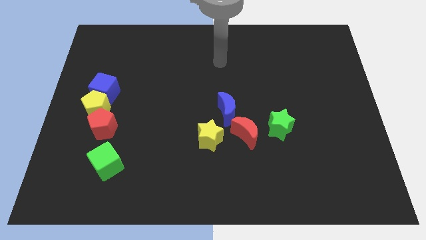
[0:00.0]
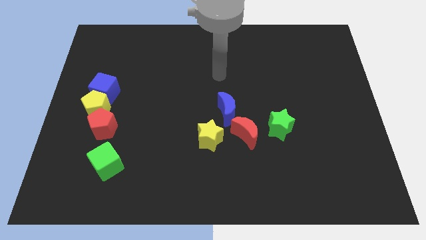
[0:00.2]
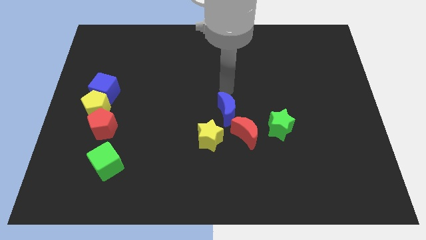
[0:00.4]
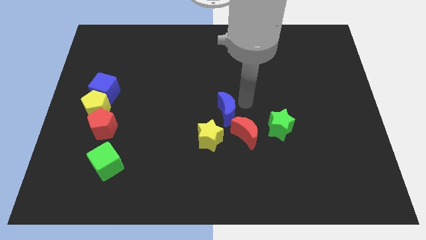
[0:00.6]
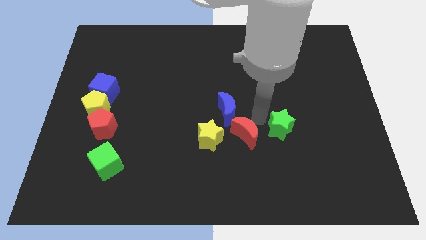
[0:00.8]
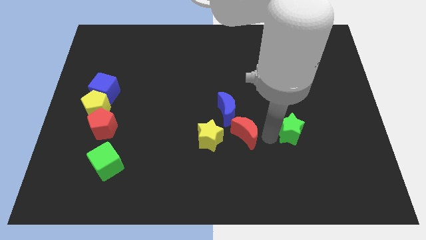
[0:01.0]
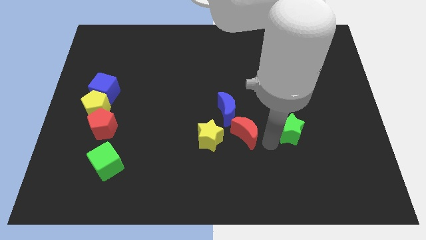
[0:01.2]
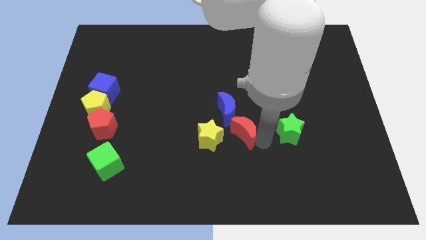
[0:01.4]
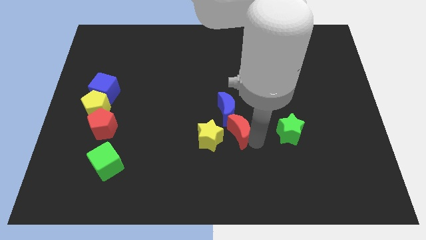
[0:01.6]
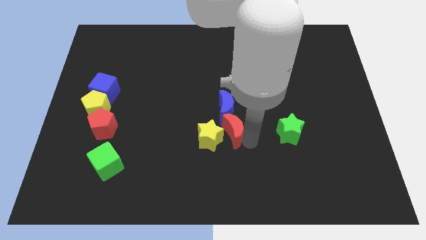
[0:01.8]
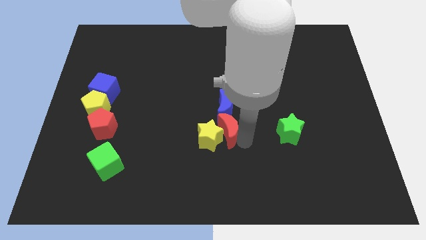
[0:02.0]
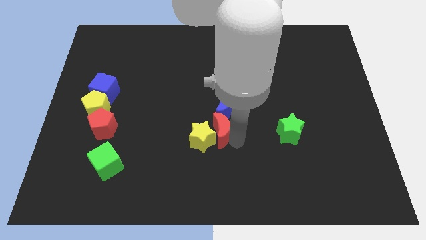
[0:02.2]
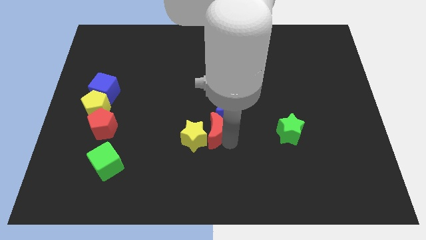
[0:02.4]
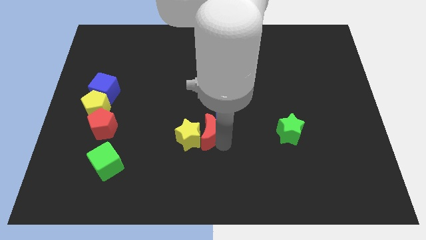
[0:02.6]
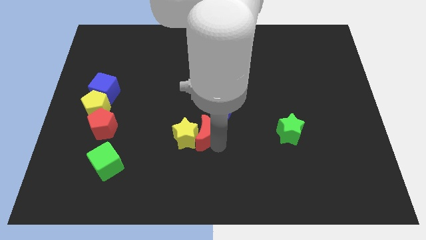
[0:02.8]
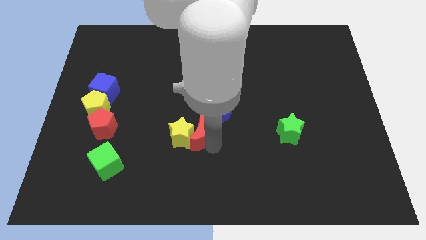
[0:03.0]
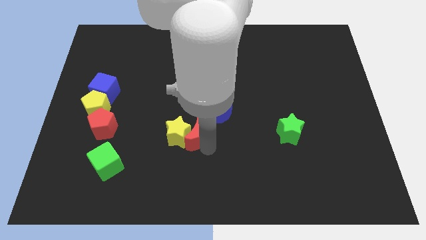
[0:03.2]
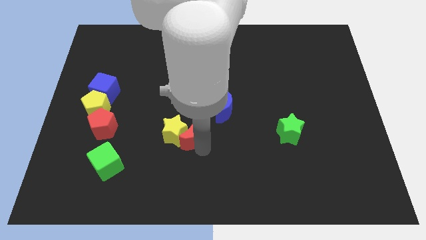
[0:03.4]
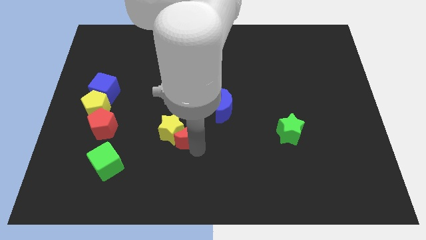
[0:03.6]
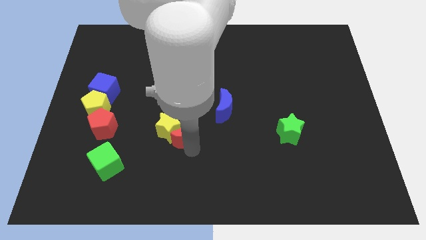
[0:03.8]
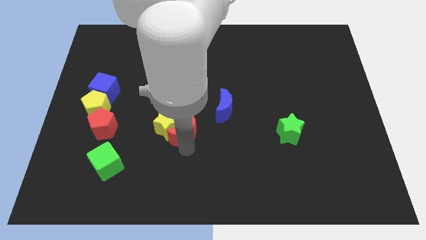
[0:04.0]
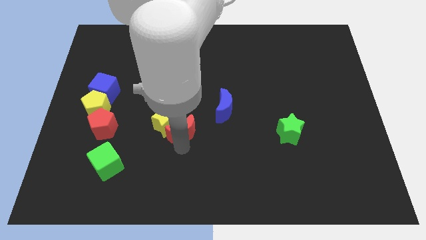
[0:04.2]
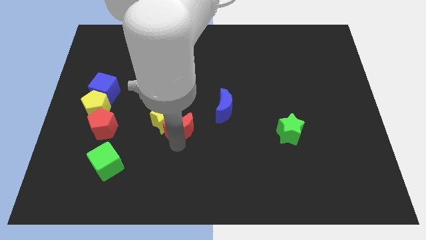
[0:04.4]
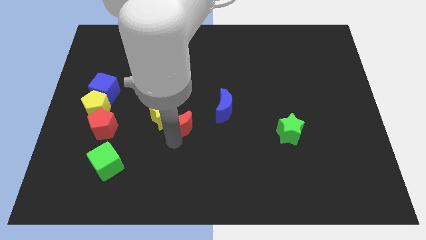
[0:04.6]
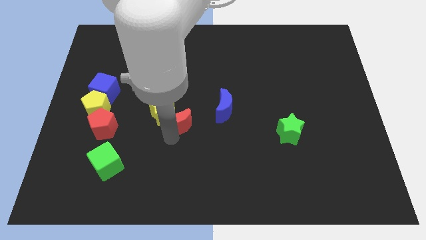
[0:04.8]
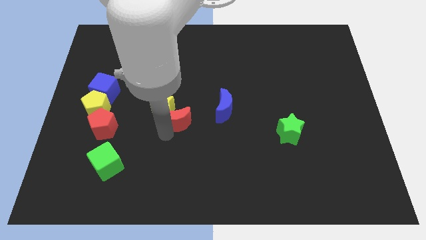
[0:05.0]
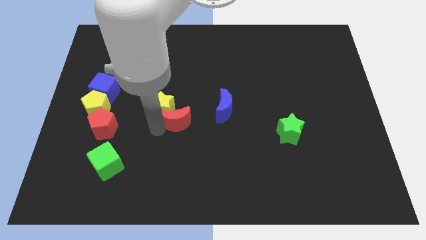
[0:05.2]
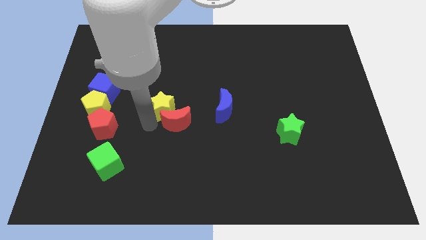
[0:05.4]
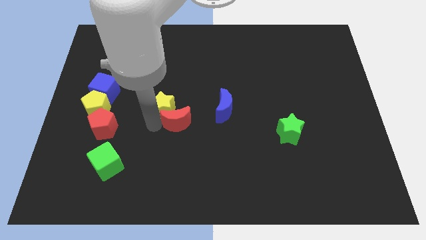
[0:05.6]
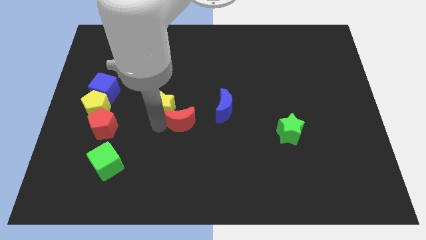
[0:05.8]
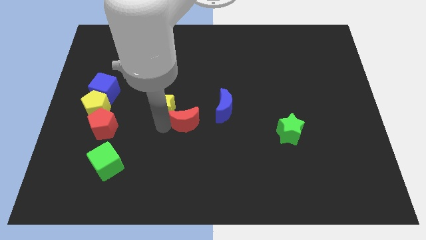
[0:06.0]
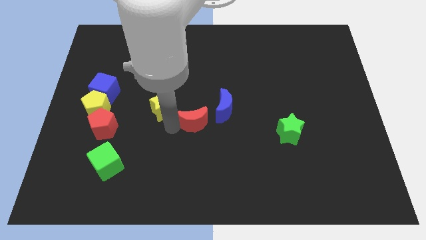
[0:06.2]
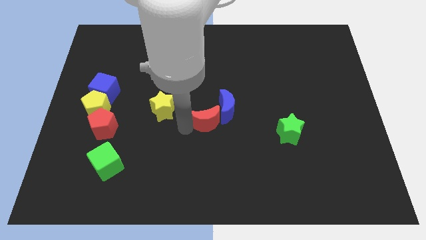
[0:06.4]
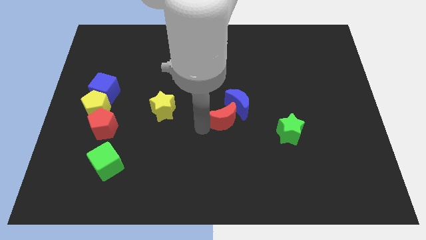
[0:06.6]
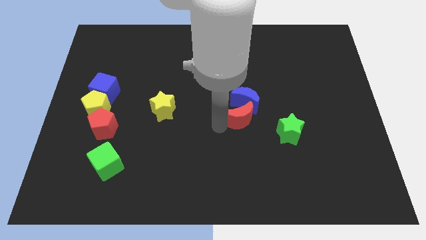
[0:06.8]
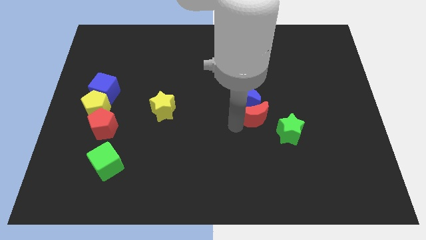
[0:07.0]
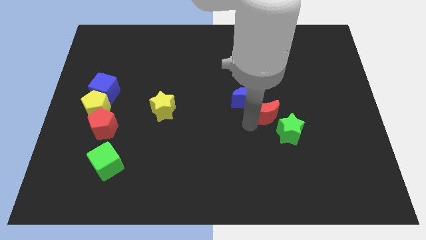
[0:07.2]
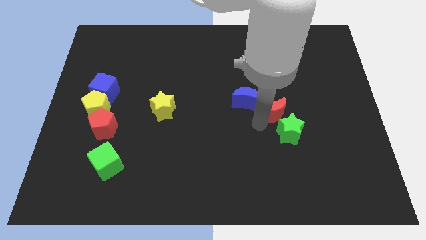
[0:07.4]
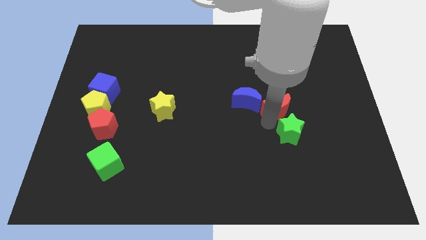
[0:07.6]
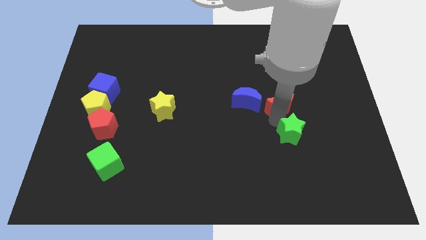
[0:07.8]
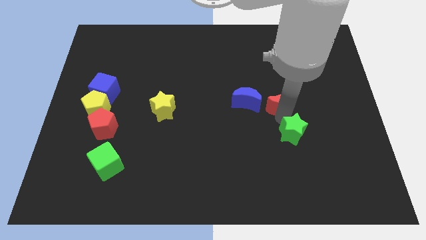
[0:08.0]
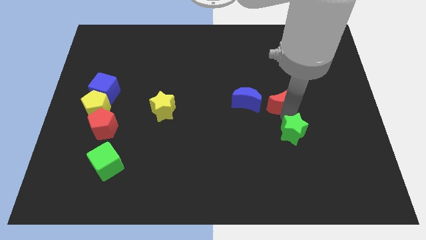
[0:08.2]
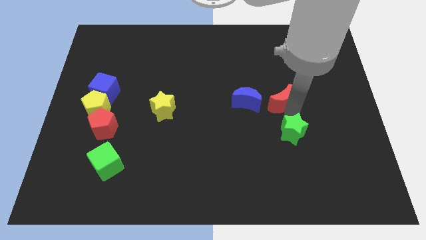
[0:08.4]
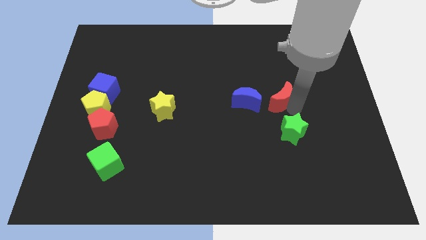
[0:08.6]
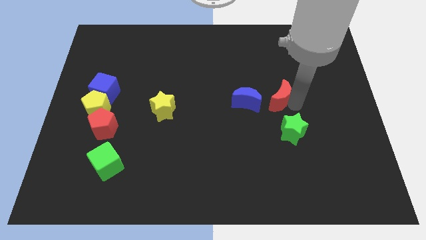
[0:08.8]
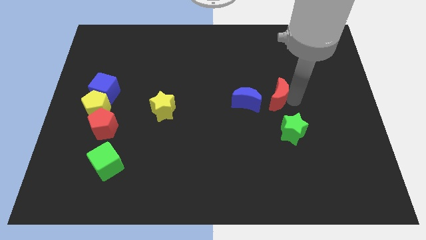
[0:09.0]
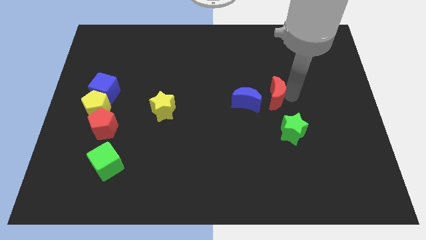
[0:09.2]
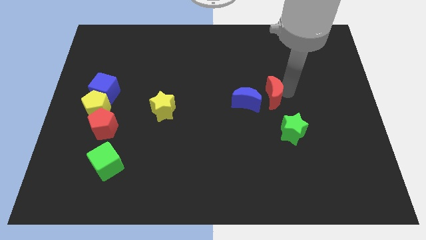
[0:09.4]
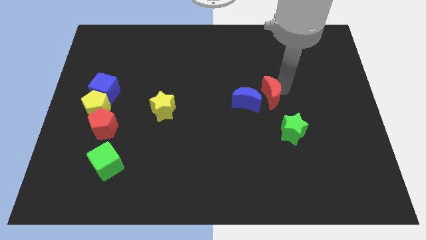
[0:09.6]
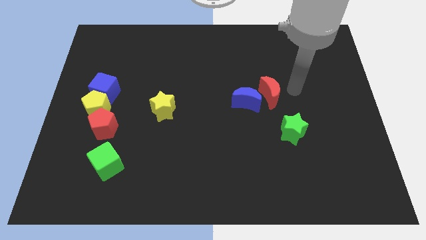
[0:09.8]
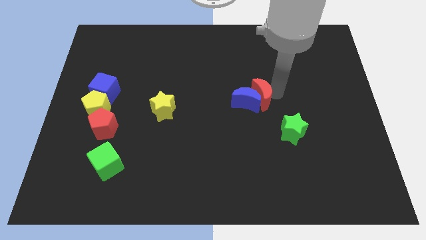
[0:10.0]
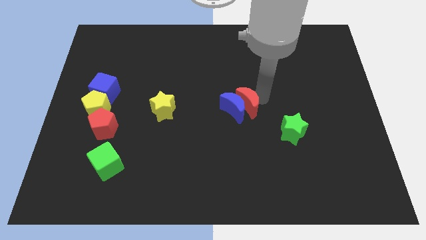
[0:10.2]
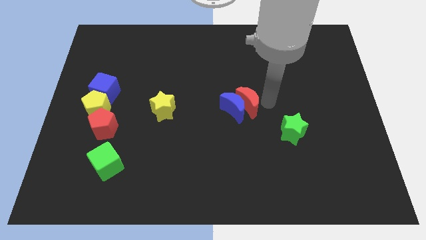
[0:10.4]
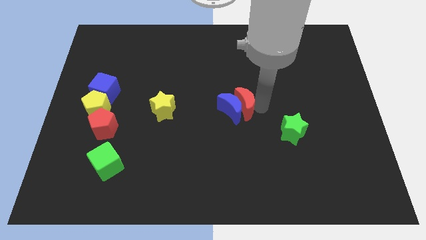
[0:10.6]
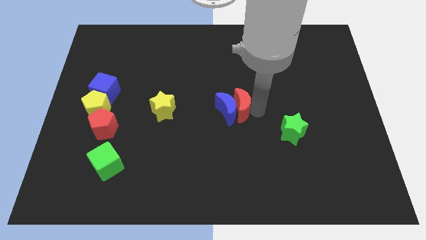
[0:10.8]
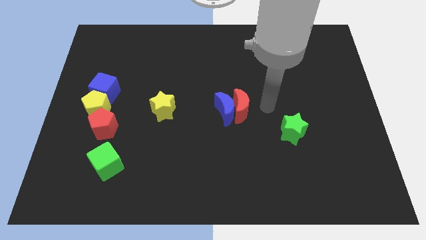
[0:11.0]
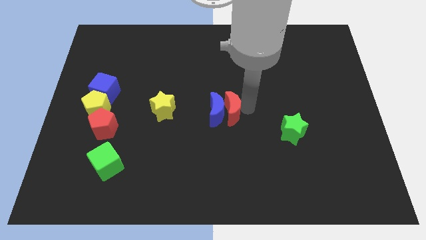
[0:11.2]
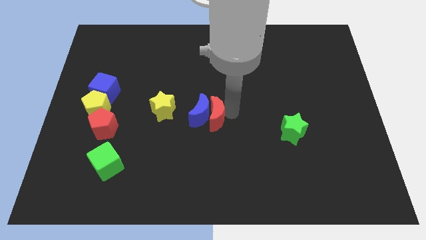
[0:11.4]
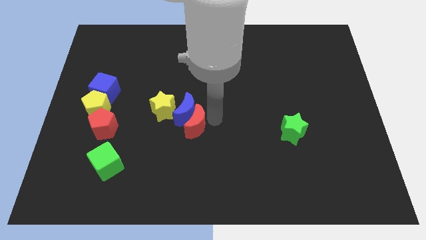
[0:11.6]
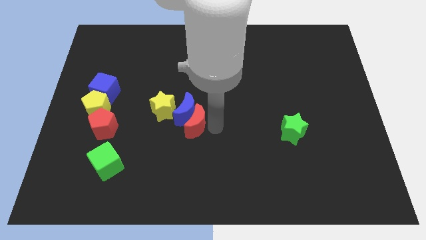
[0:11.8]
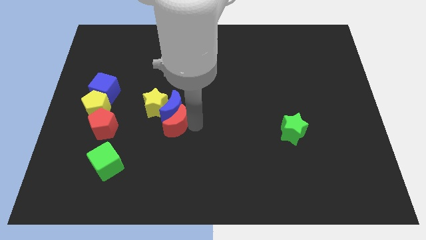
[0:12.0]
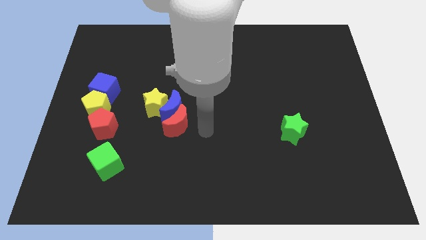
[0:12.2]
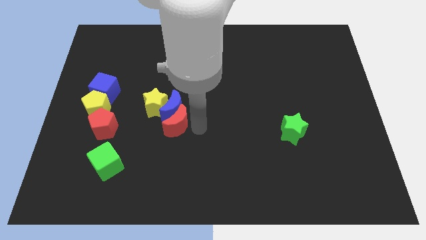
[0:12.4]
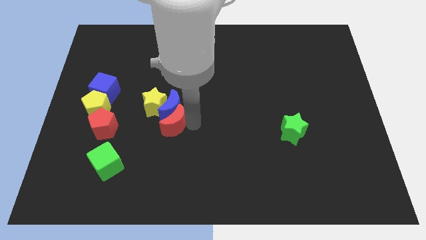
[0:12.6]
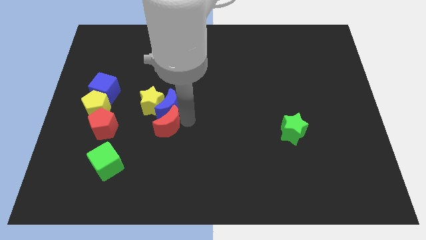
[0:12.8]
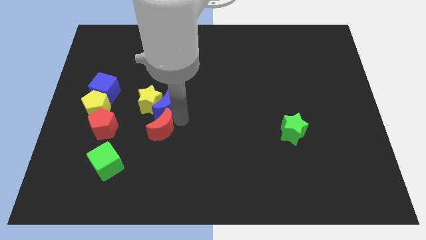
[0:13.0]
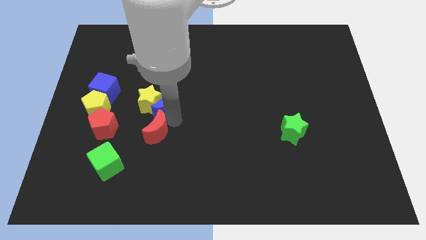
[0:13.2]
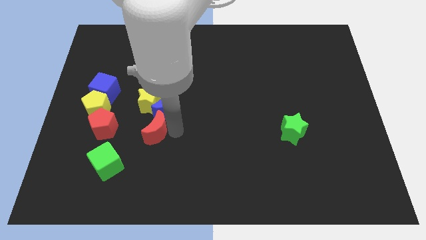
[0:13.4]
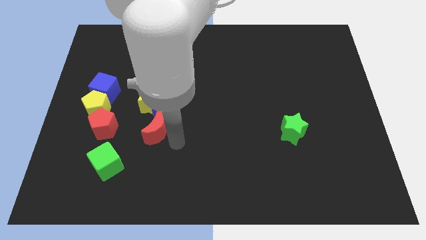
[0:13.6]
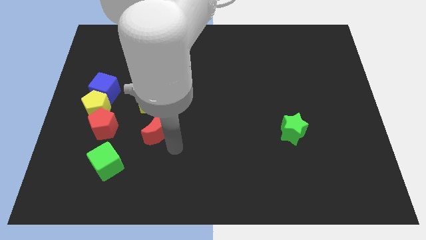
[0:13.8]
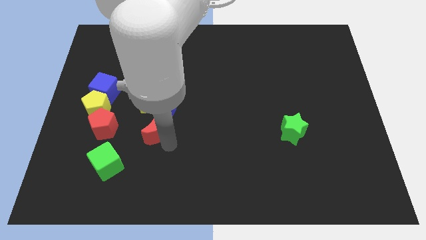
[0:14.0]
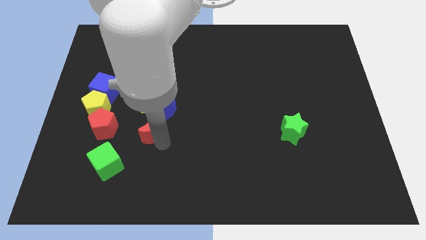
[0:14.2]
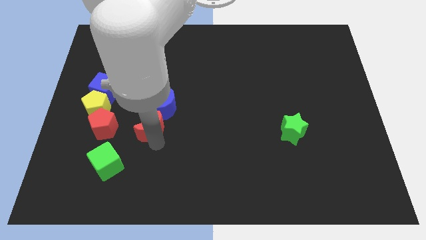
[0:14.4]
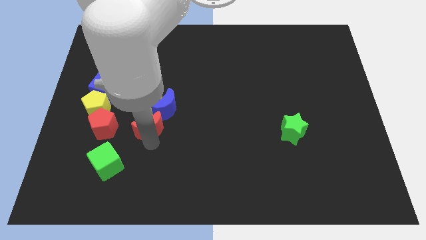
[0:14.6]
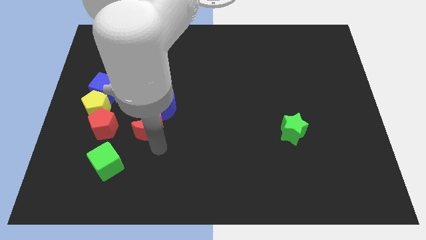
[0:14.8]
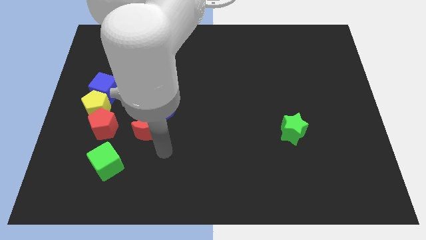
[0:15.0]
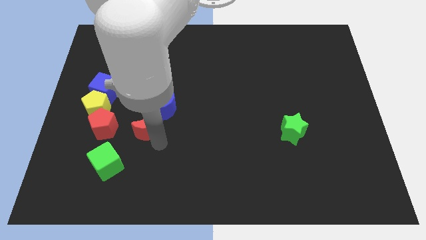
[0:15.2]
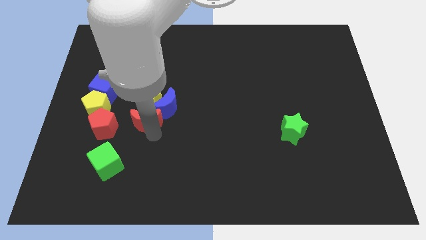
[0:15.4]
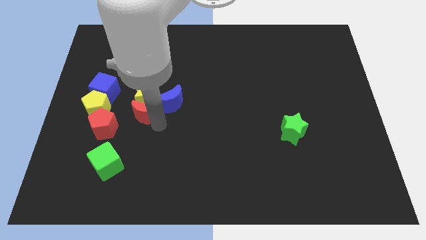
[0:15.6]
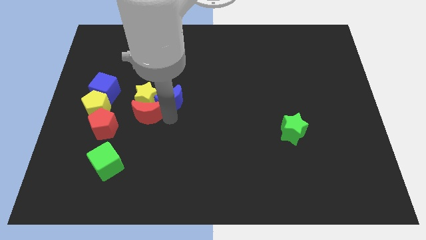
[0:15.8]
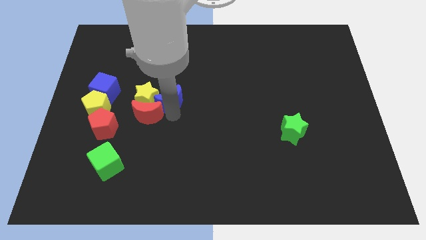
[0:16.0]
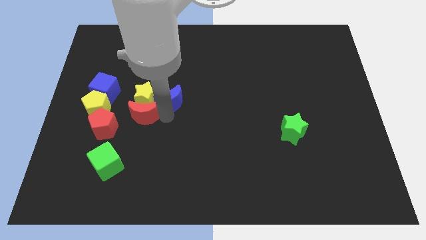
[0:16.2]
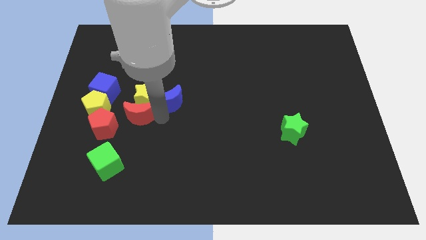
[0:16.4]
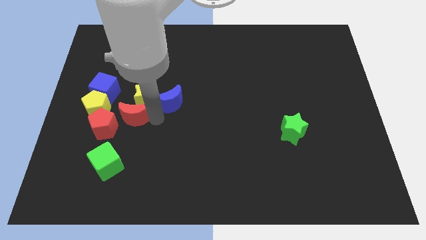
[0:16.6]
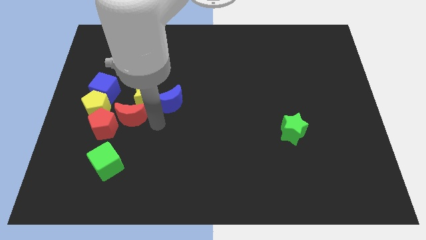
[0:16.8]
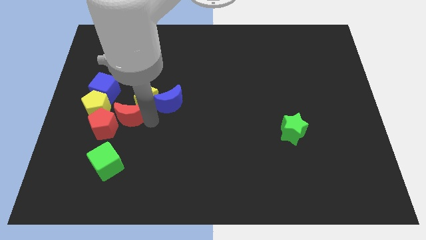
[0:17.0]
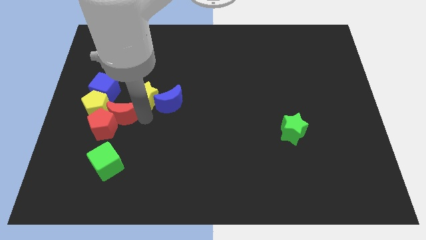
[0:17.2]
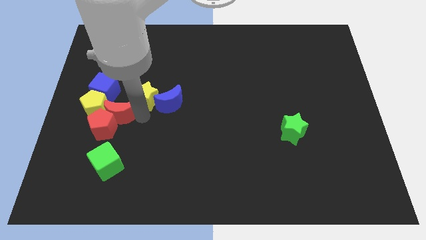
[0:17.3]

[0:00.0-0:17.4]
put the red moon towards the yellow pentagon

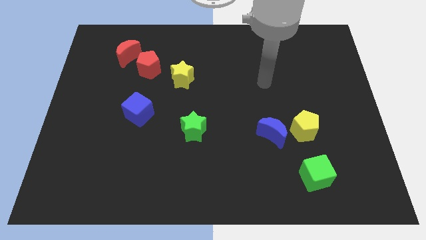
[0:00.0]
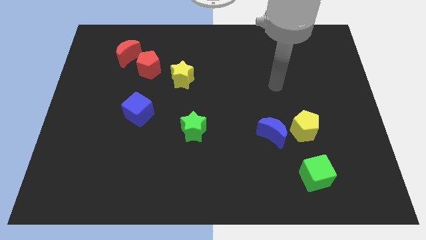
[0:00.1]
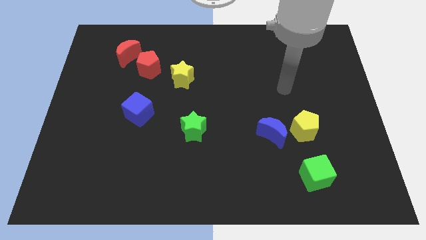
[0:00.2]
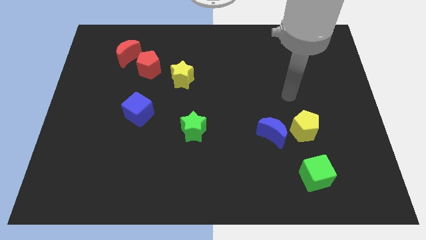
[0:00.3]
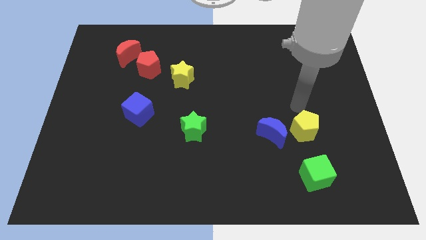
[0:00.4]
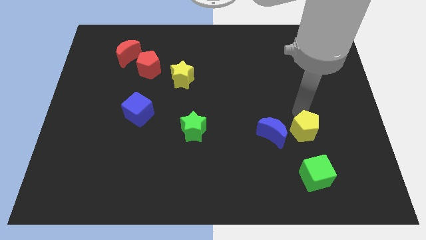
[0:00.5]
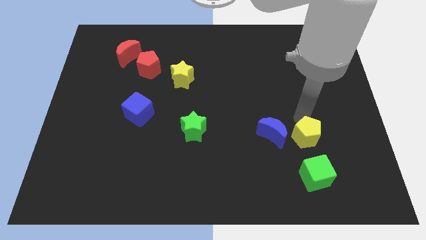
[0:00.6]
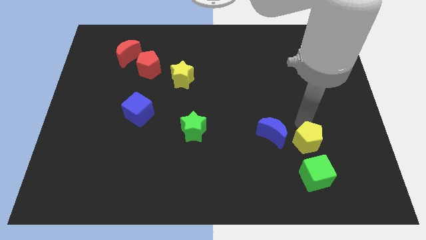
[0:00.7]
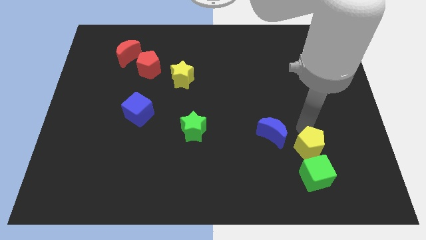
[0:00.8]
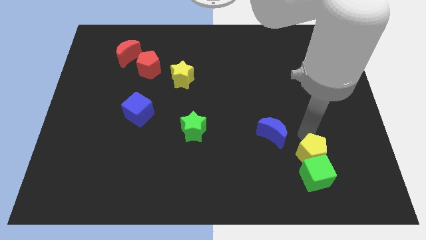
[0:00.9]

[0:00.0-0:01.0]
move the yellow pentagon next to the green cube
